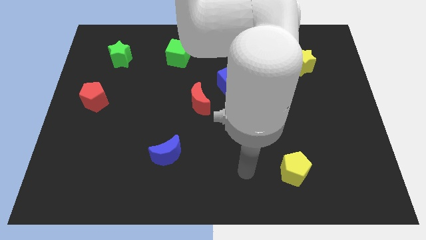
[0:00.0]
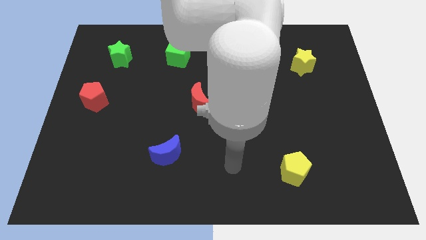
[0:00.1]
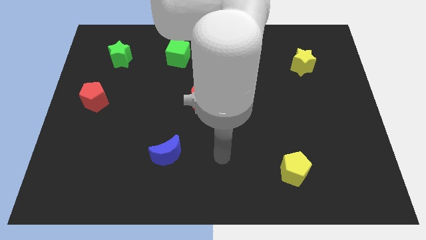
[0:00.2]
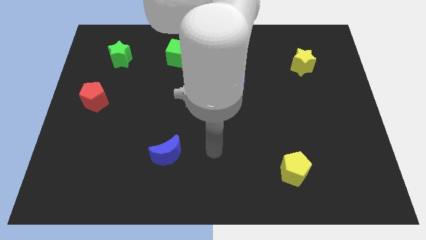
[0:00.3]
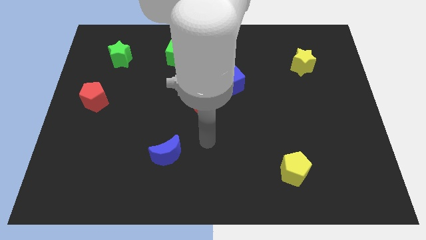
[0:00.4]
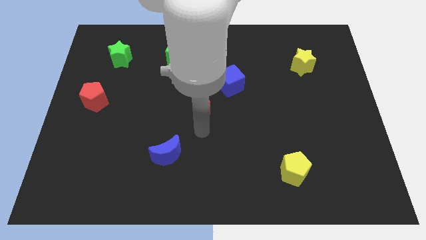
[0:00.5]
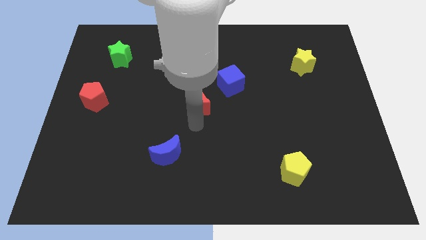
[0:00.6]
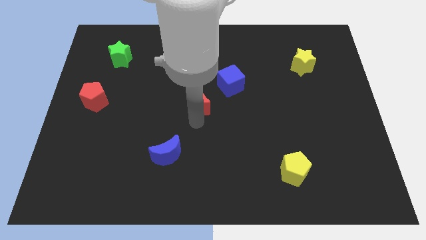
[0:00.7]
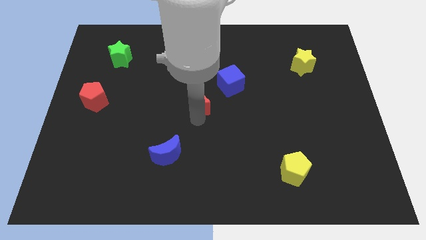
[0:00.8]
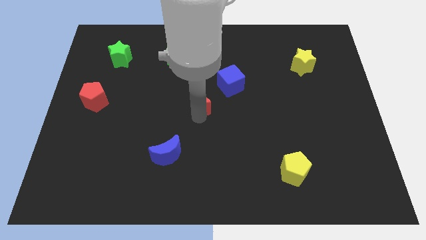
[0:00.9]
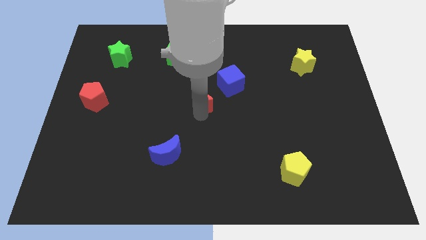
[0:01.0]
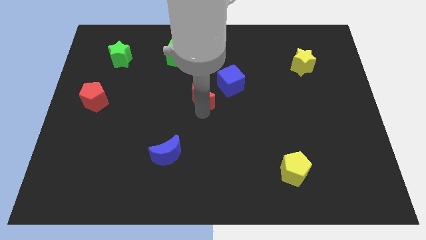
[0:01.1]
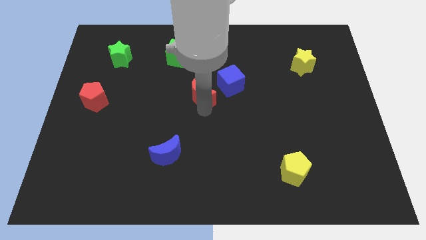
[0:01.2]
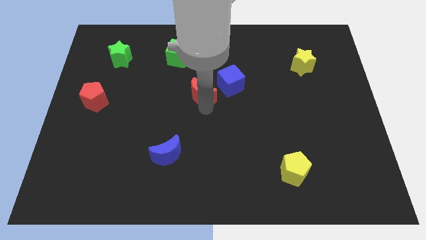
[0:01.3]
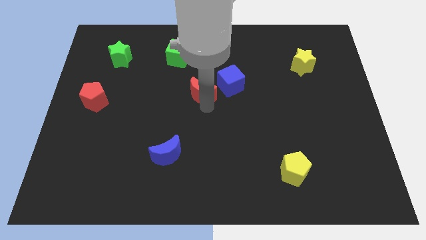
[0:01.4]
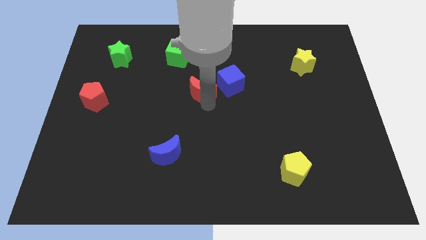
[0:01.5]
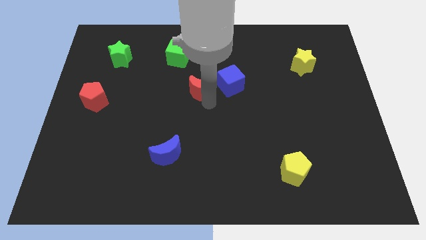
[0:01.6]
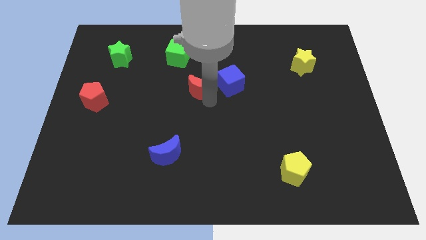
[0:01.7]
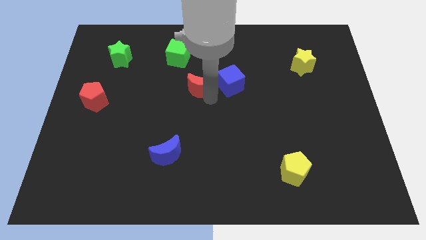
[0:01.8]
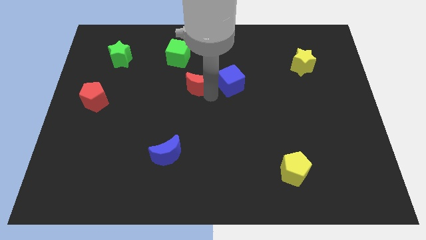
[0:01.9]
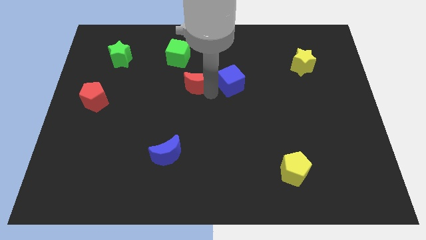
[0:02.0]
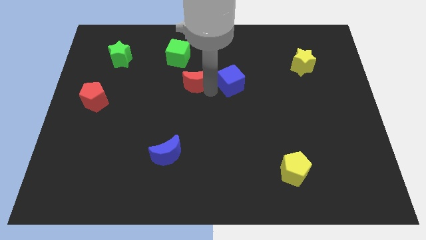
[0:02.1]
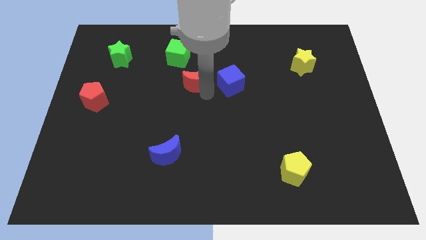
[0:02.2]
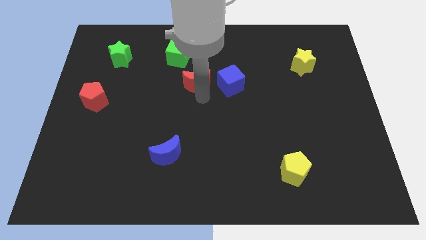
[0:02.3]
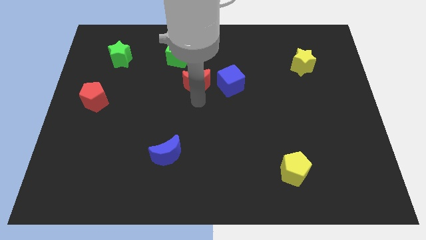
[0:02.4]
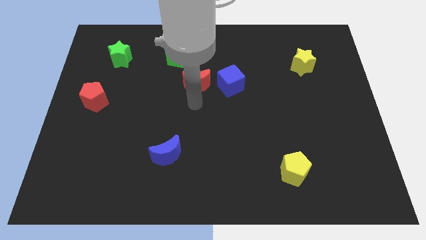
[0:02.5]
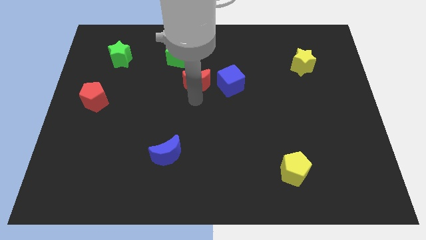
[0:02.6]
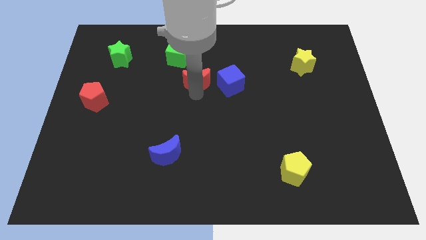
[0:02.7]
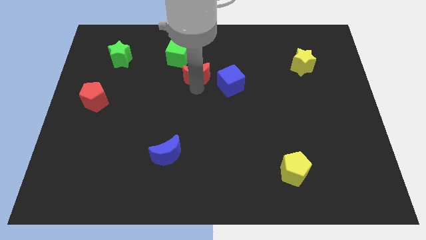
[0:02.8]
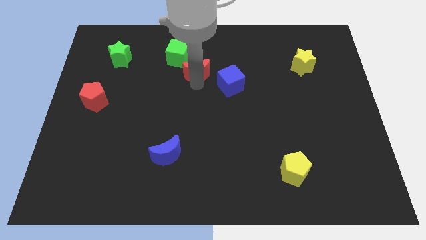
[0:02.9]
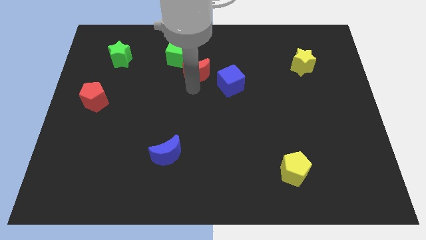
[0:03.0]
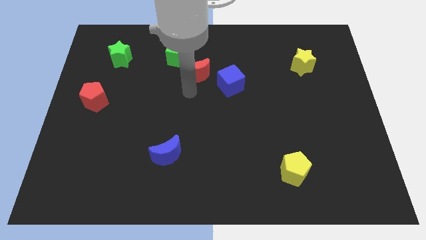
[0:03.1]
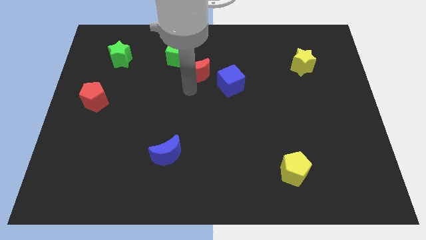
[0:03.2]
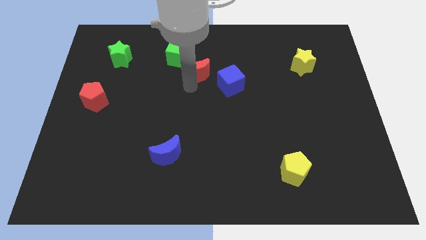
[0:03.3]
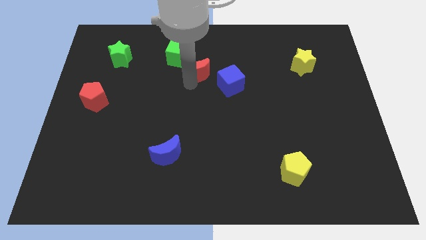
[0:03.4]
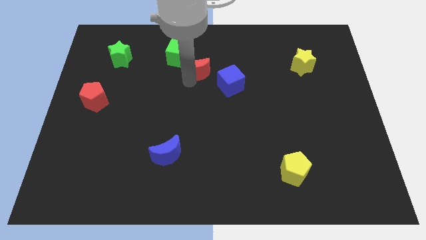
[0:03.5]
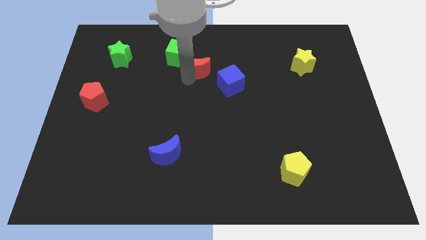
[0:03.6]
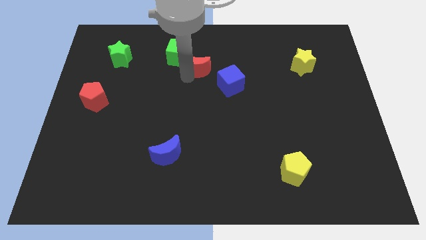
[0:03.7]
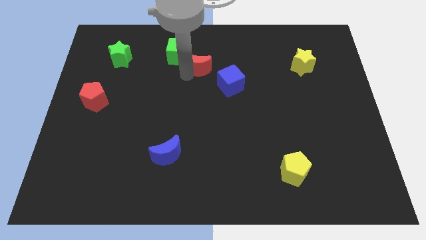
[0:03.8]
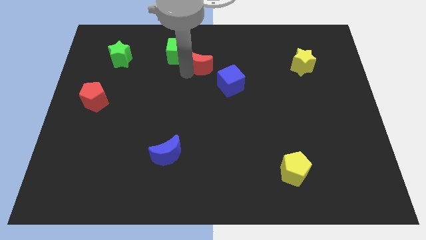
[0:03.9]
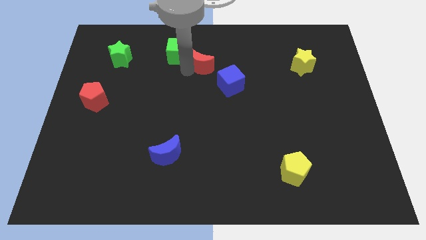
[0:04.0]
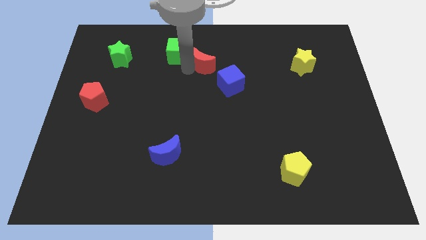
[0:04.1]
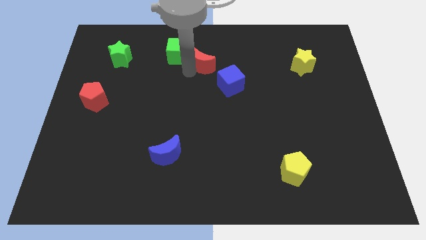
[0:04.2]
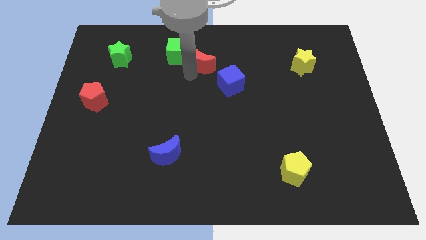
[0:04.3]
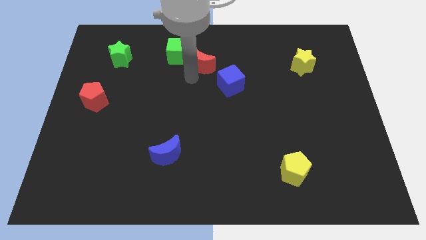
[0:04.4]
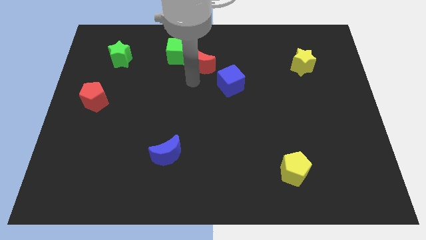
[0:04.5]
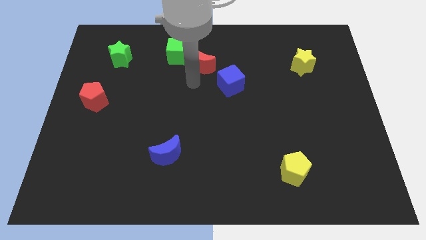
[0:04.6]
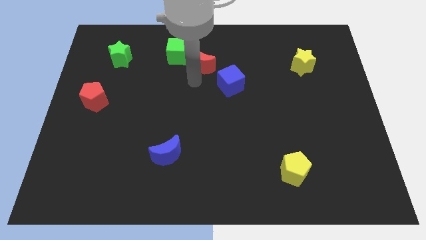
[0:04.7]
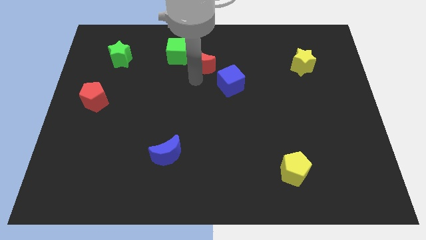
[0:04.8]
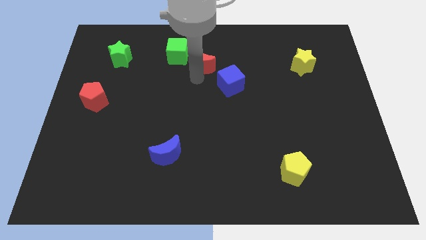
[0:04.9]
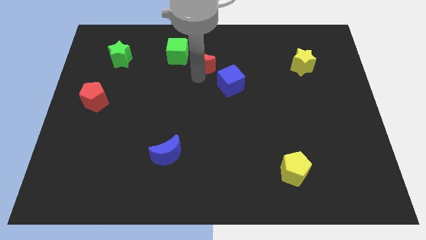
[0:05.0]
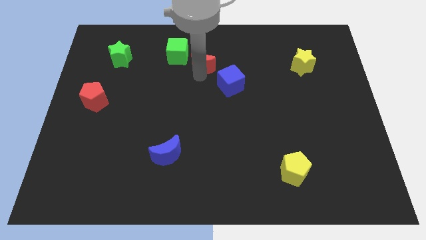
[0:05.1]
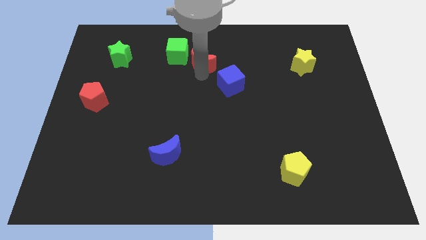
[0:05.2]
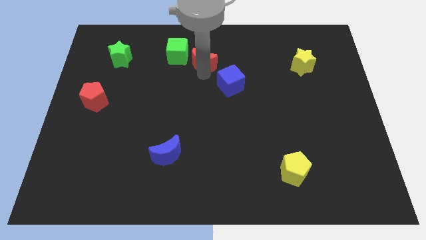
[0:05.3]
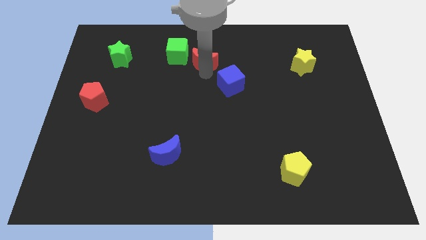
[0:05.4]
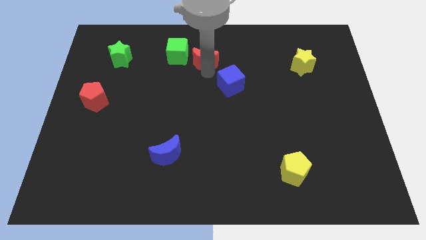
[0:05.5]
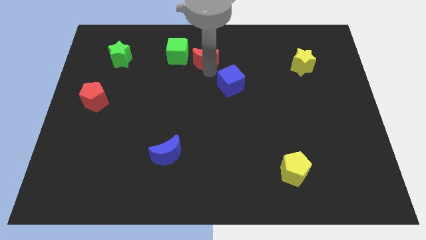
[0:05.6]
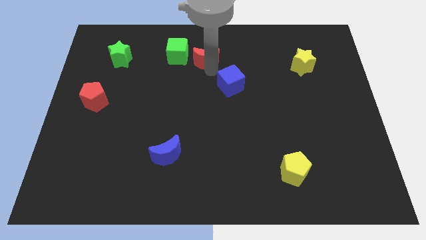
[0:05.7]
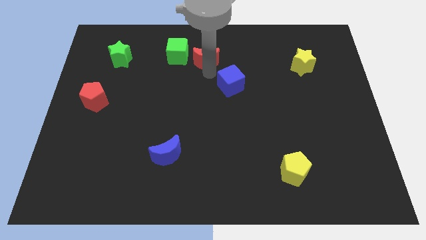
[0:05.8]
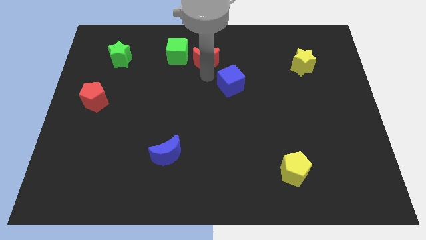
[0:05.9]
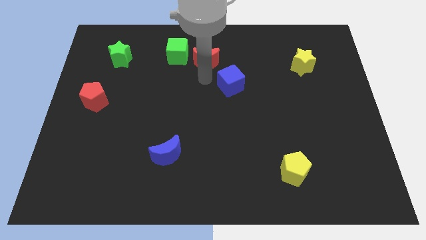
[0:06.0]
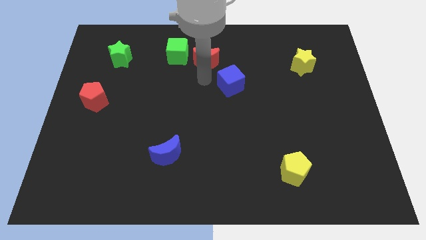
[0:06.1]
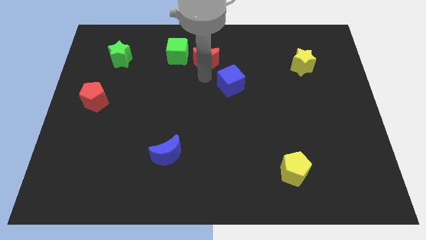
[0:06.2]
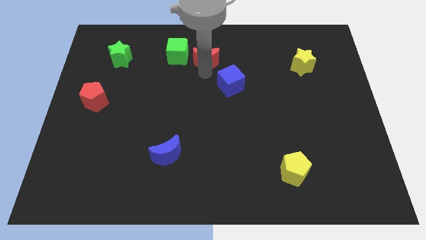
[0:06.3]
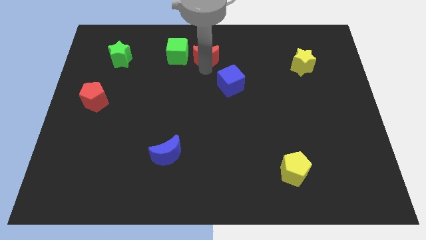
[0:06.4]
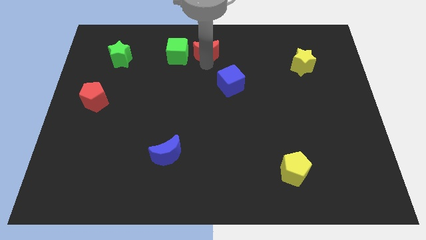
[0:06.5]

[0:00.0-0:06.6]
put the red moon to the top side
